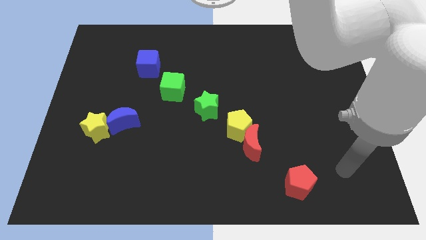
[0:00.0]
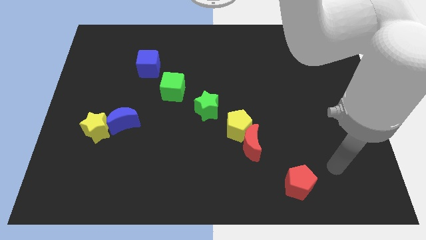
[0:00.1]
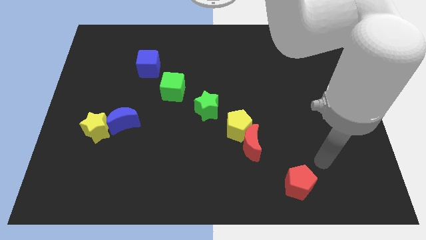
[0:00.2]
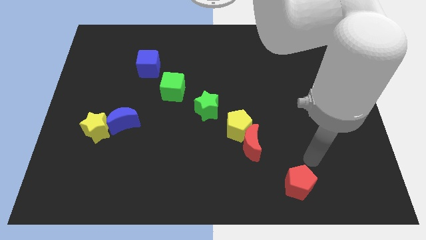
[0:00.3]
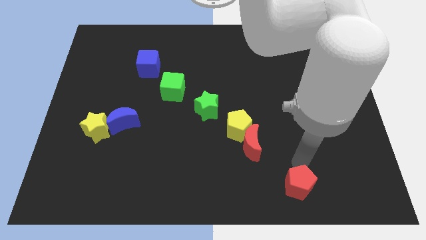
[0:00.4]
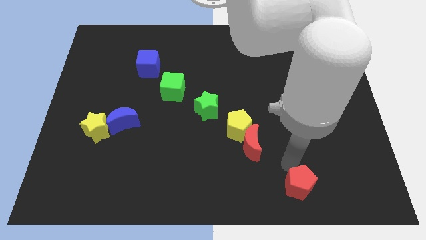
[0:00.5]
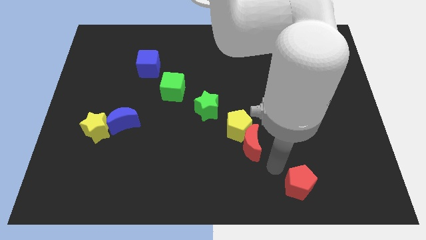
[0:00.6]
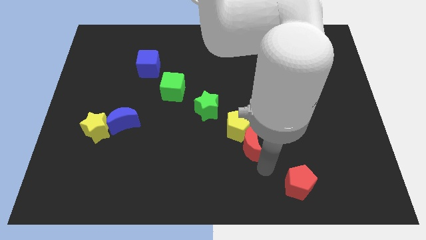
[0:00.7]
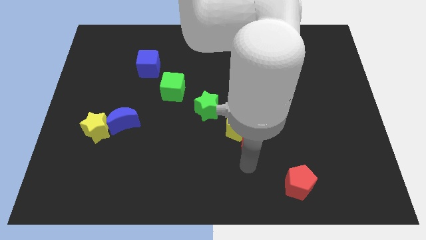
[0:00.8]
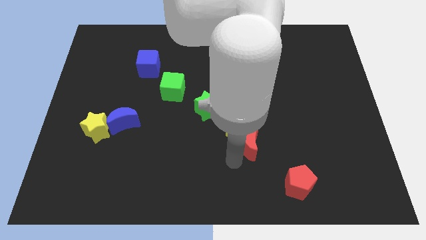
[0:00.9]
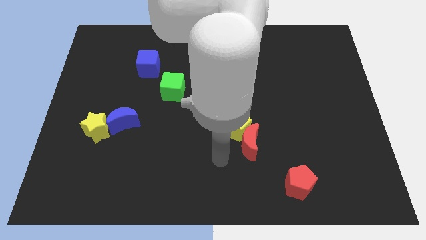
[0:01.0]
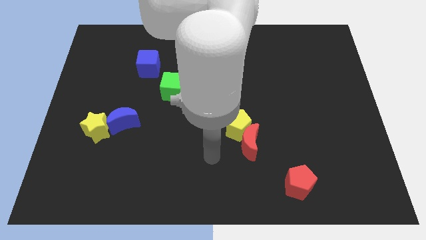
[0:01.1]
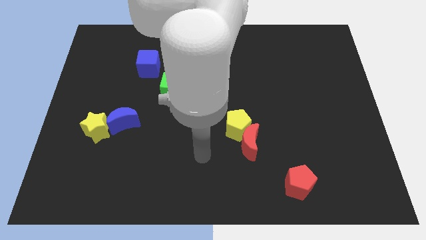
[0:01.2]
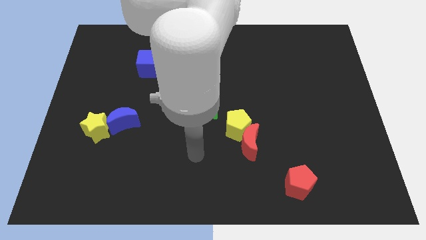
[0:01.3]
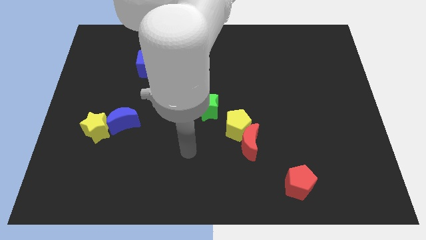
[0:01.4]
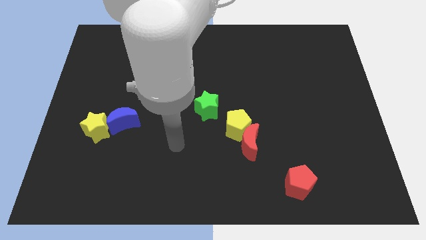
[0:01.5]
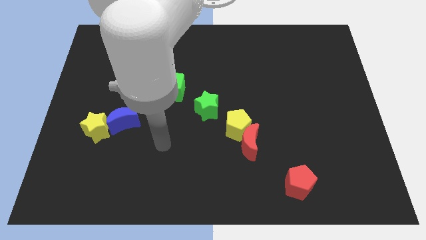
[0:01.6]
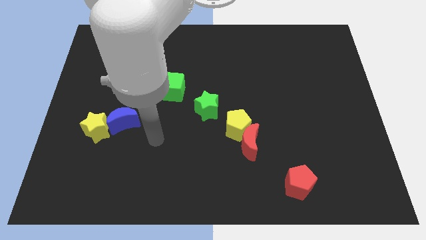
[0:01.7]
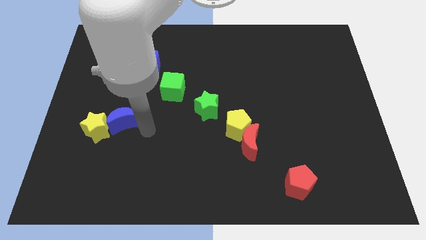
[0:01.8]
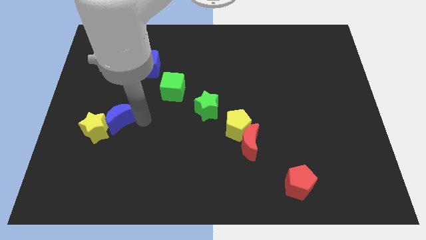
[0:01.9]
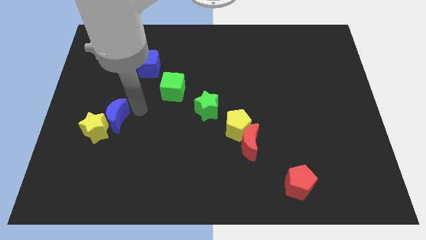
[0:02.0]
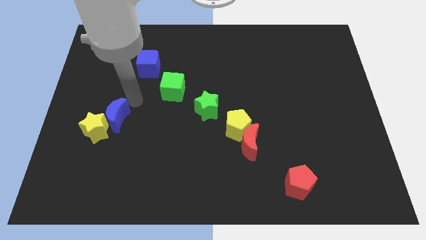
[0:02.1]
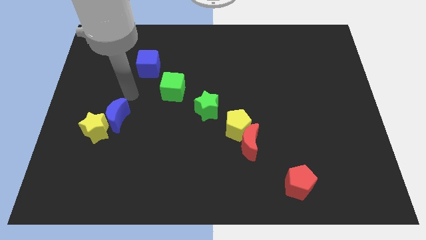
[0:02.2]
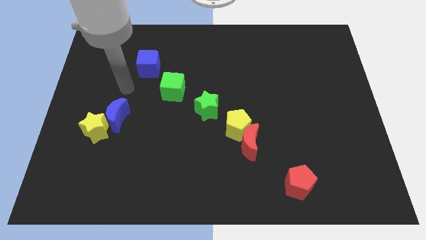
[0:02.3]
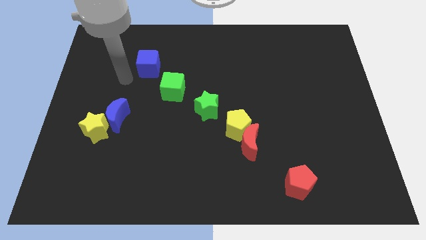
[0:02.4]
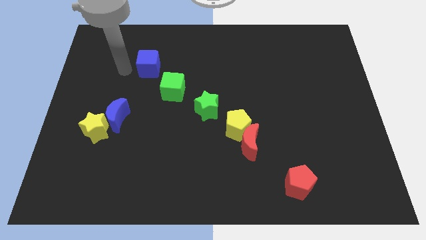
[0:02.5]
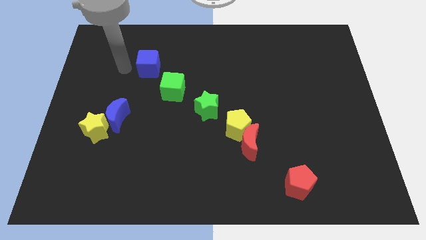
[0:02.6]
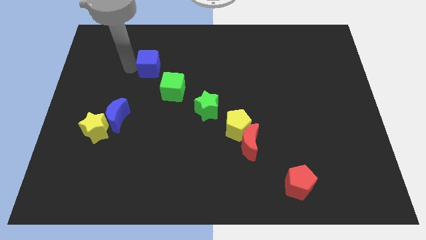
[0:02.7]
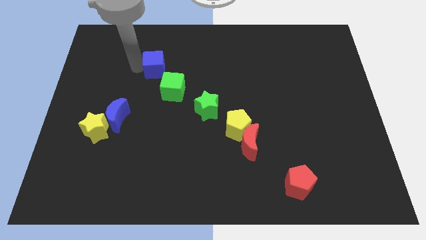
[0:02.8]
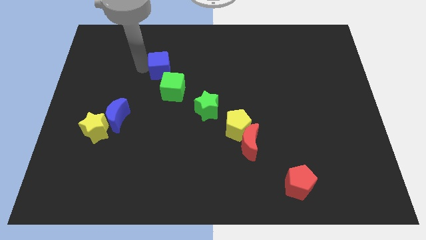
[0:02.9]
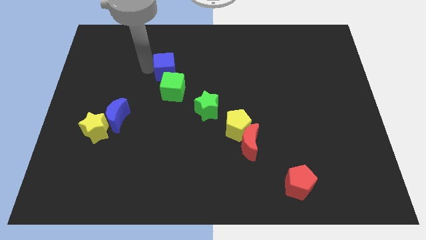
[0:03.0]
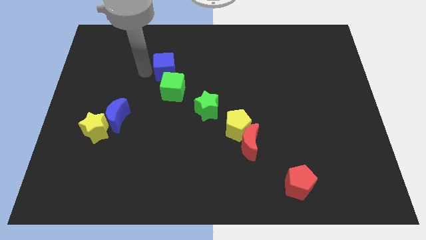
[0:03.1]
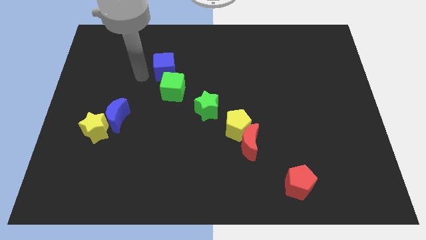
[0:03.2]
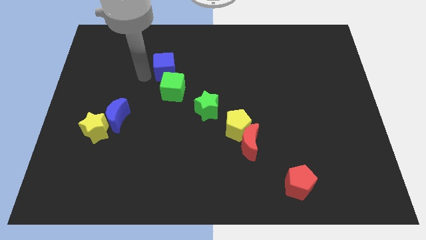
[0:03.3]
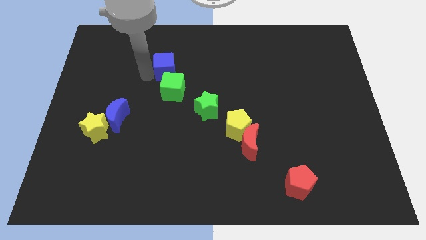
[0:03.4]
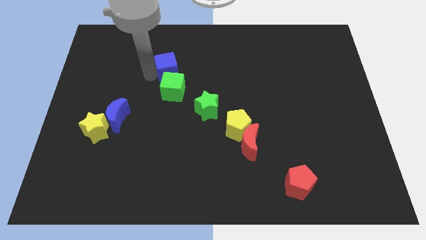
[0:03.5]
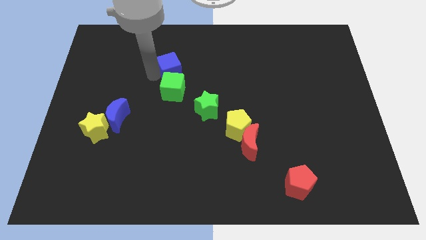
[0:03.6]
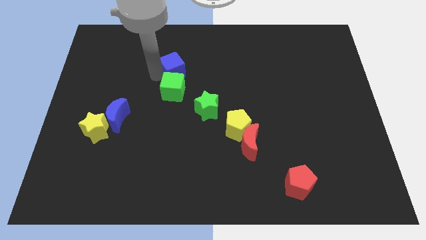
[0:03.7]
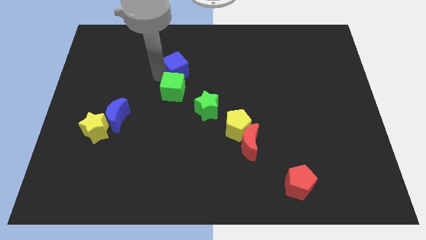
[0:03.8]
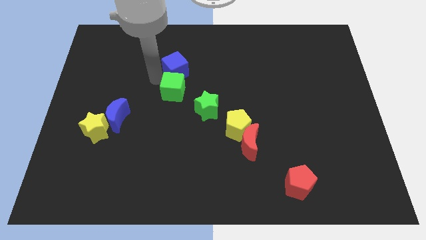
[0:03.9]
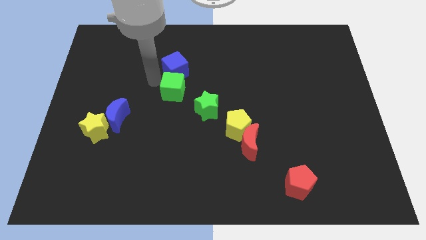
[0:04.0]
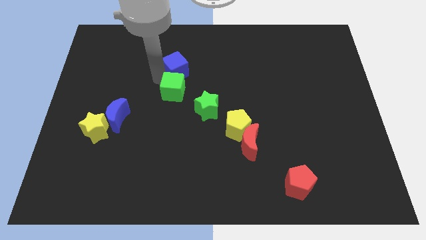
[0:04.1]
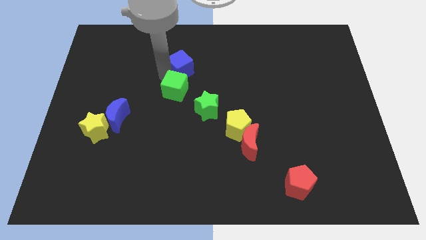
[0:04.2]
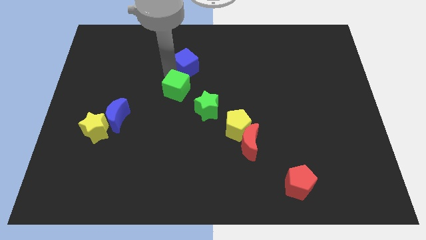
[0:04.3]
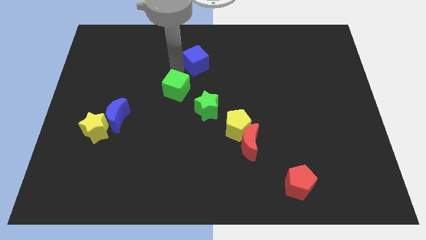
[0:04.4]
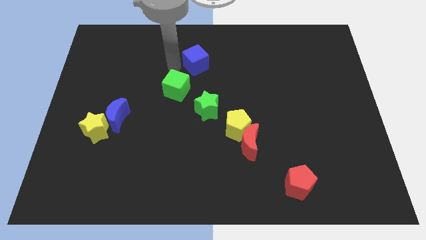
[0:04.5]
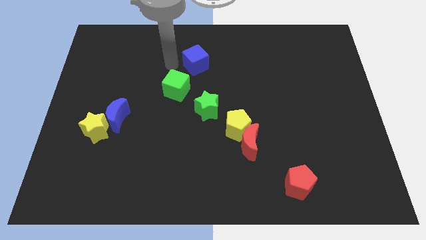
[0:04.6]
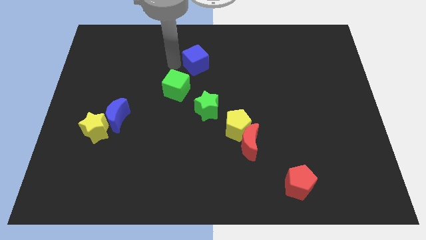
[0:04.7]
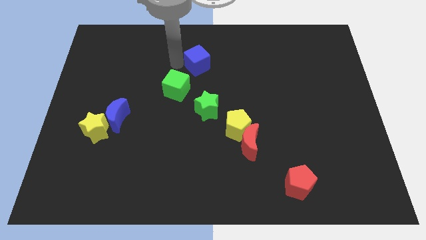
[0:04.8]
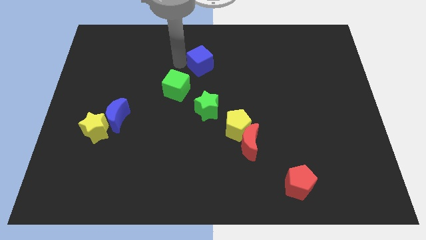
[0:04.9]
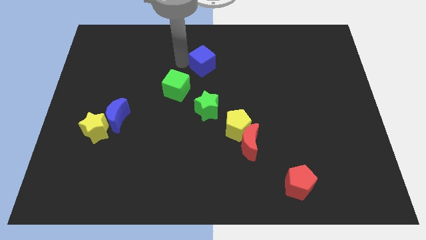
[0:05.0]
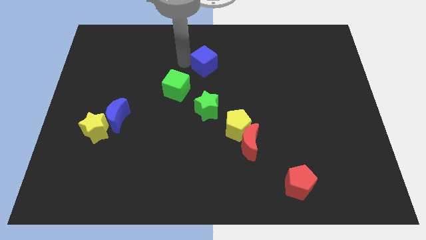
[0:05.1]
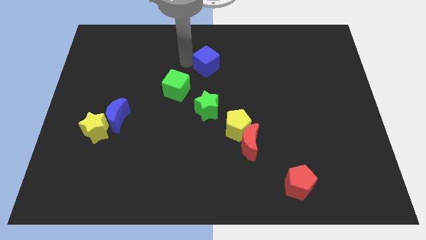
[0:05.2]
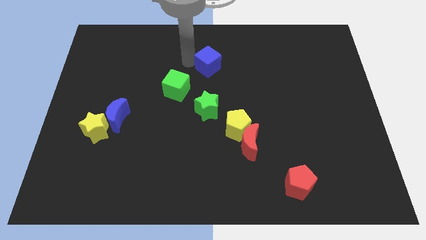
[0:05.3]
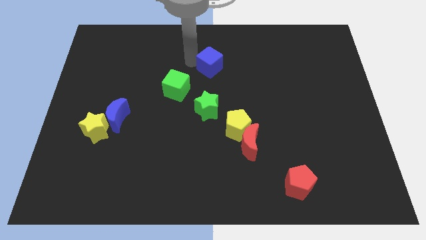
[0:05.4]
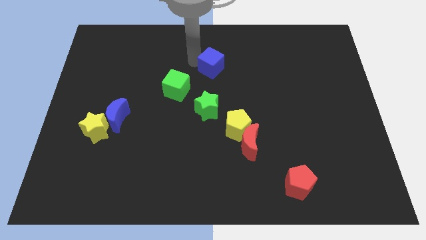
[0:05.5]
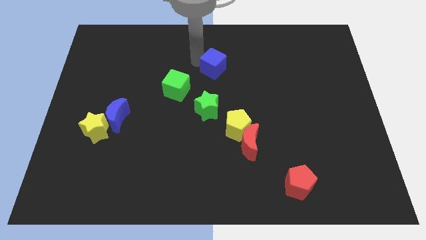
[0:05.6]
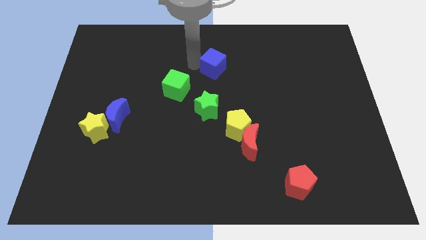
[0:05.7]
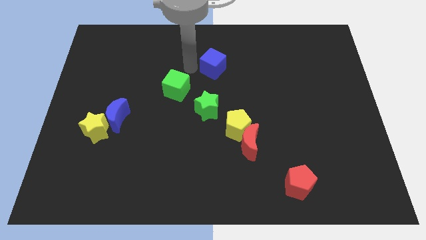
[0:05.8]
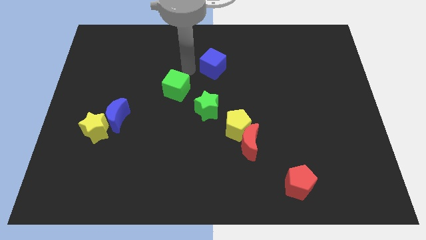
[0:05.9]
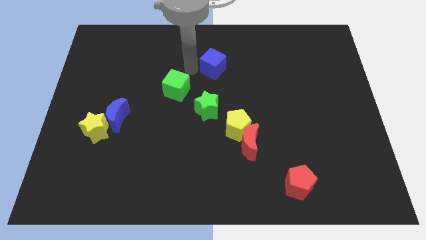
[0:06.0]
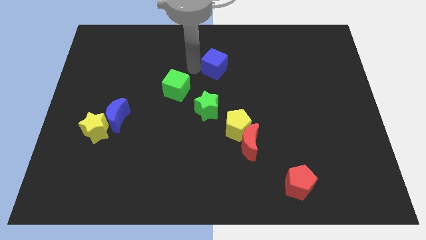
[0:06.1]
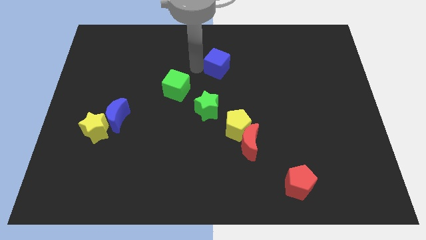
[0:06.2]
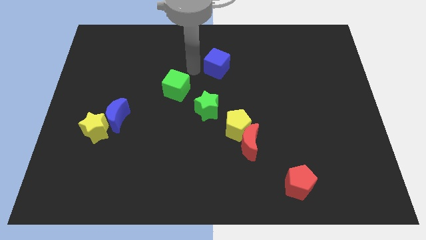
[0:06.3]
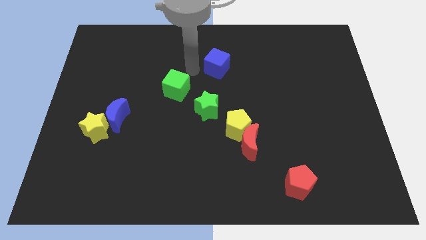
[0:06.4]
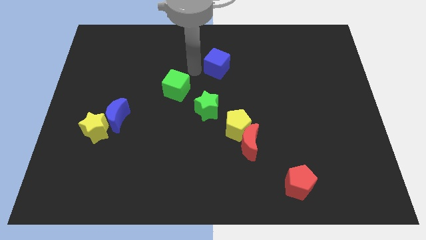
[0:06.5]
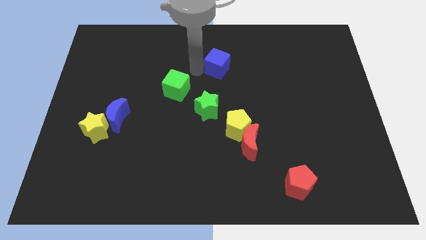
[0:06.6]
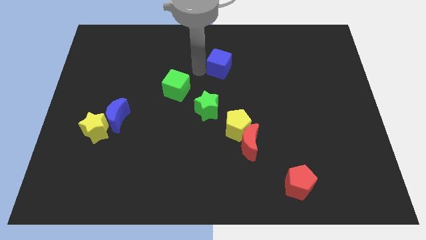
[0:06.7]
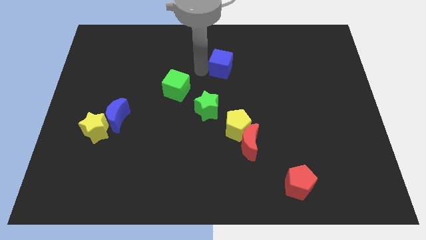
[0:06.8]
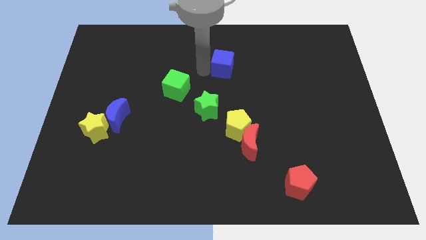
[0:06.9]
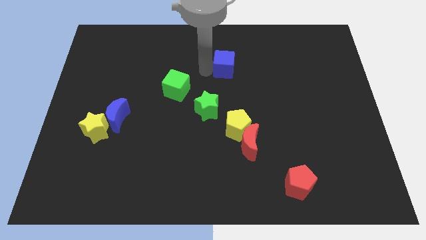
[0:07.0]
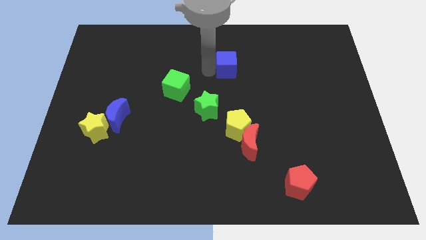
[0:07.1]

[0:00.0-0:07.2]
slide the blue cube right

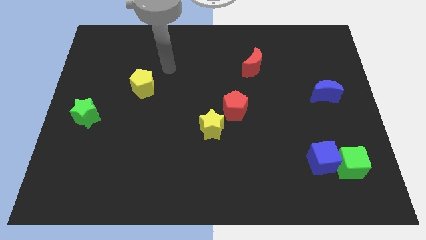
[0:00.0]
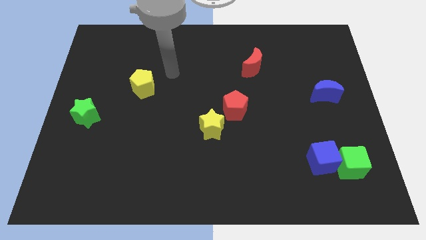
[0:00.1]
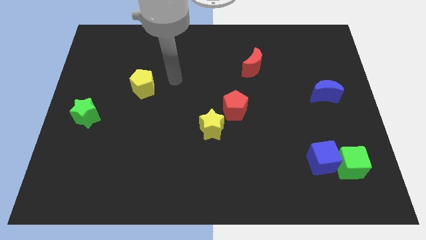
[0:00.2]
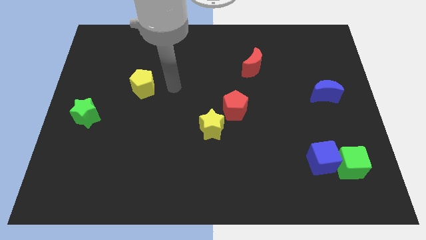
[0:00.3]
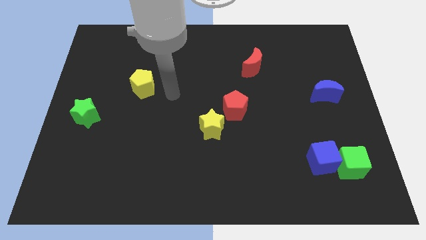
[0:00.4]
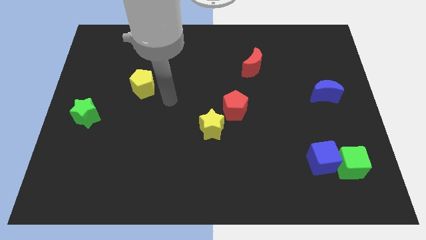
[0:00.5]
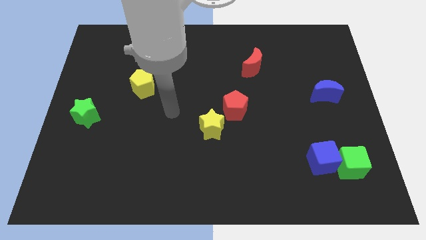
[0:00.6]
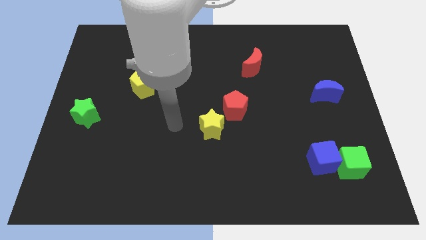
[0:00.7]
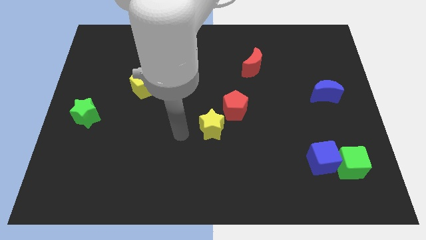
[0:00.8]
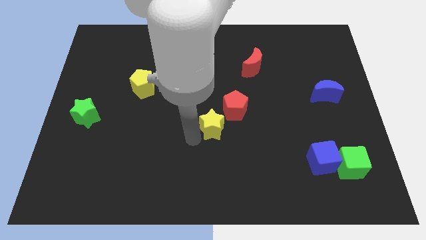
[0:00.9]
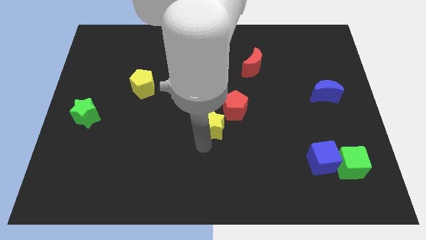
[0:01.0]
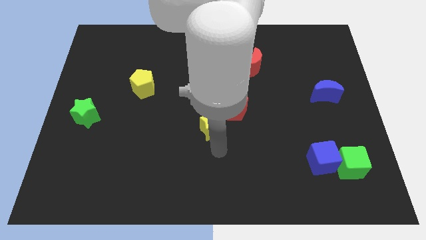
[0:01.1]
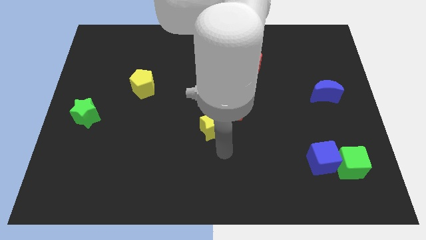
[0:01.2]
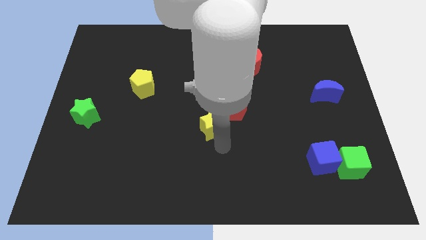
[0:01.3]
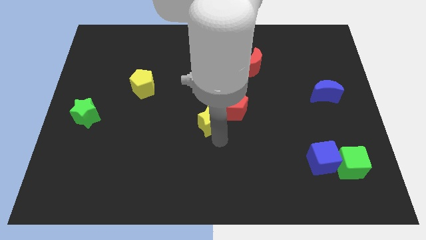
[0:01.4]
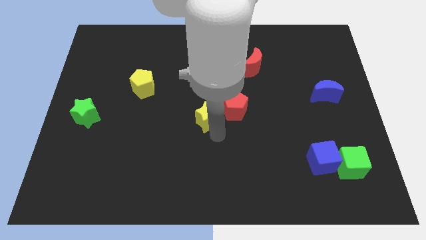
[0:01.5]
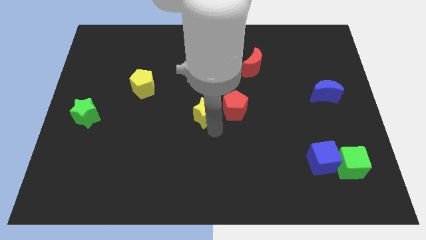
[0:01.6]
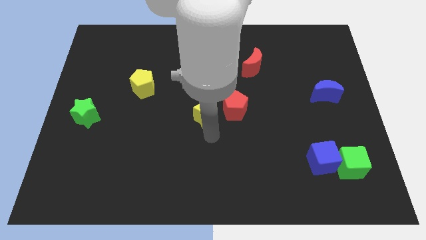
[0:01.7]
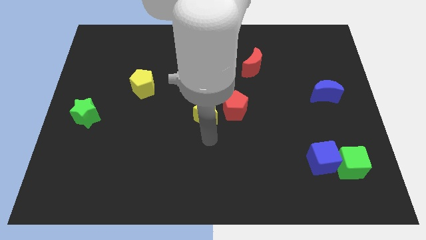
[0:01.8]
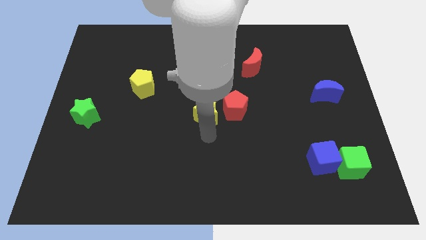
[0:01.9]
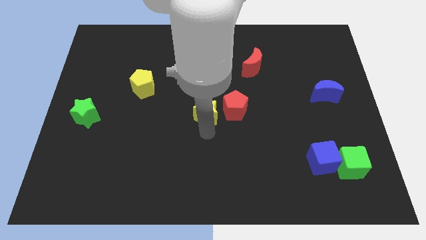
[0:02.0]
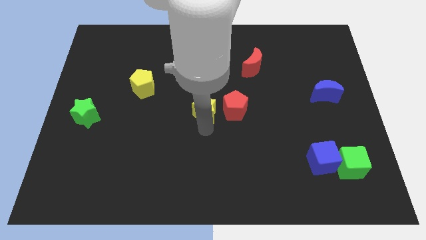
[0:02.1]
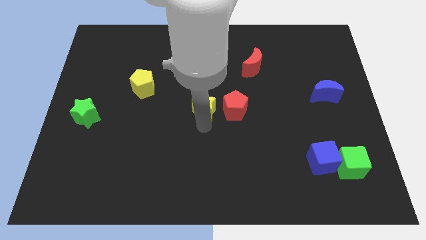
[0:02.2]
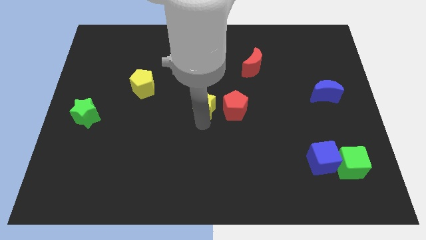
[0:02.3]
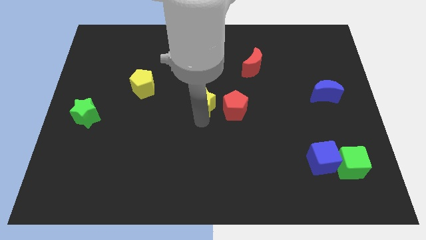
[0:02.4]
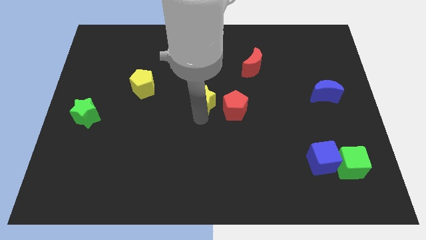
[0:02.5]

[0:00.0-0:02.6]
slide the yellow star upwards a little
